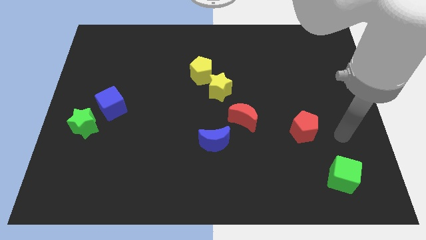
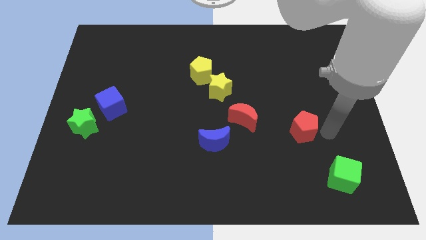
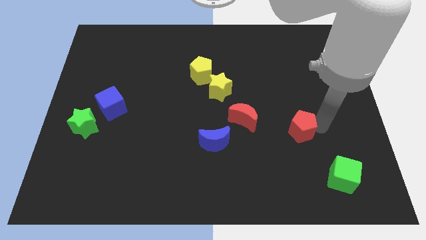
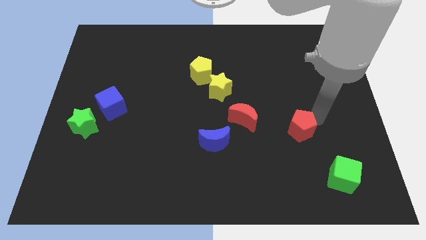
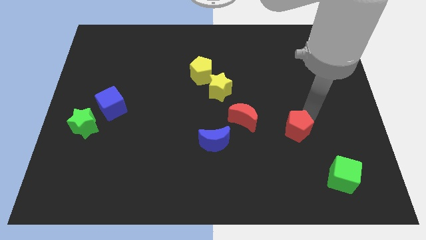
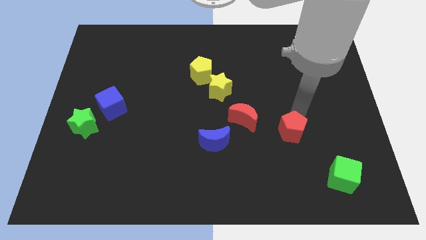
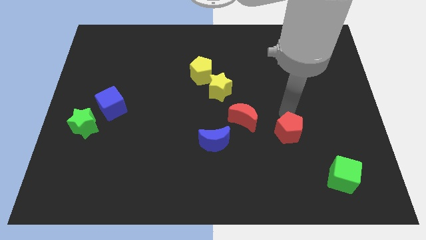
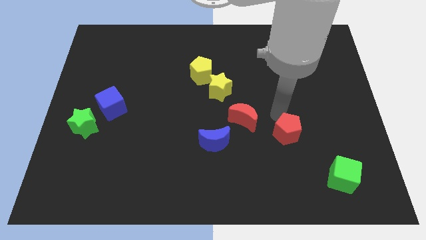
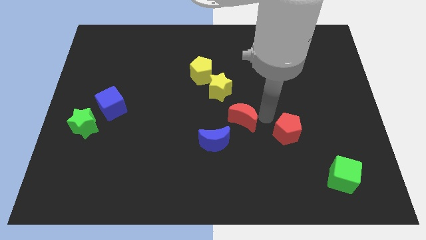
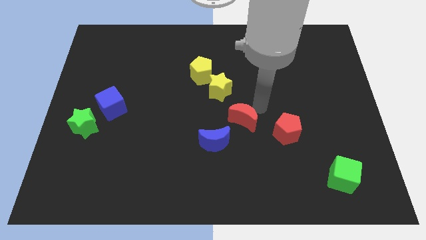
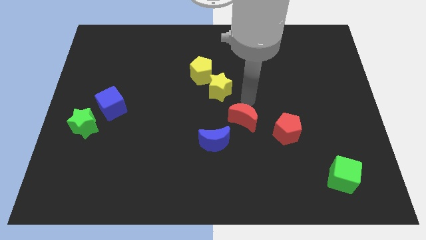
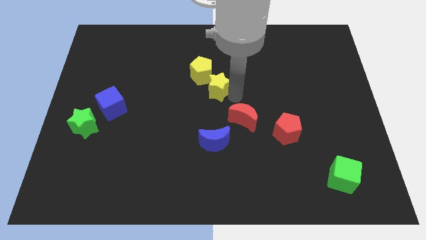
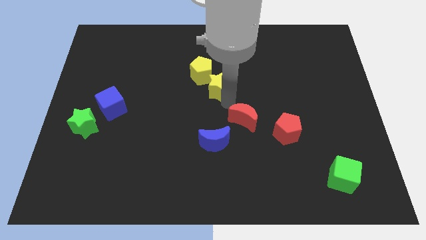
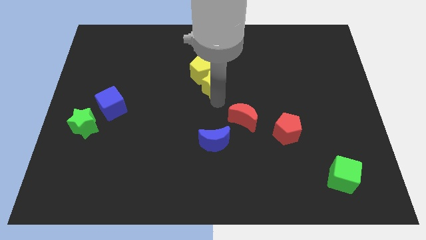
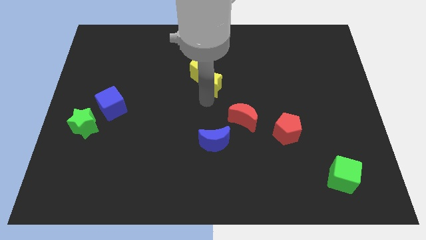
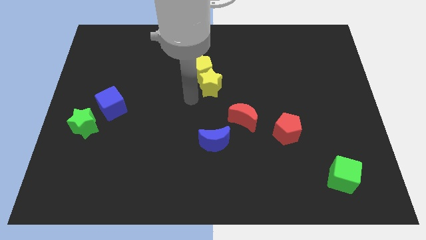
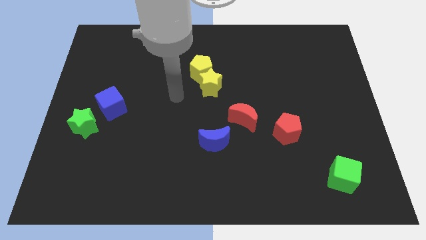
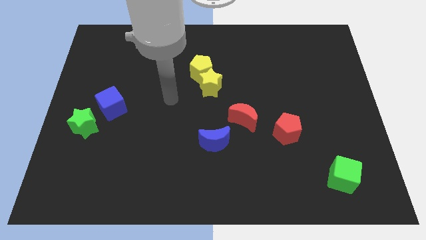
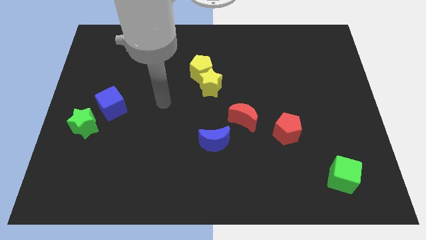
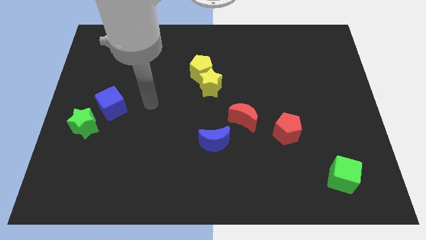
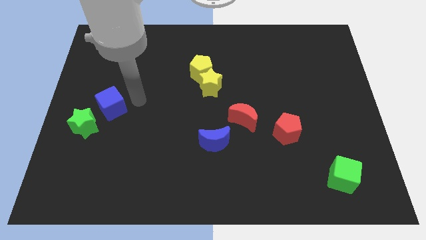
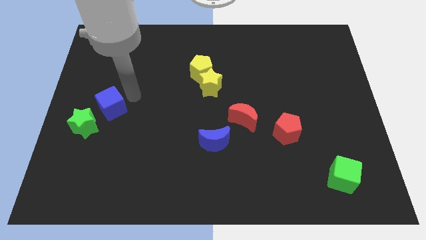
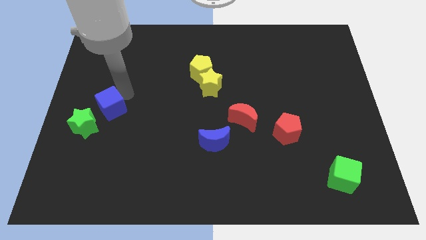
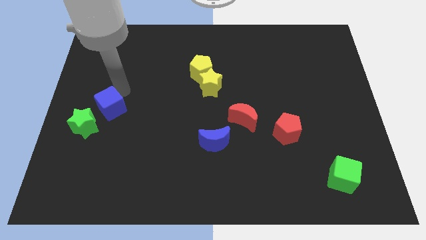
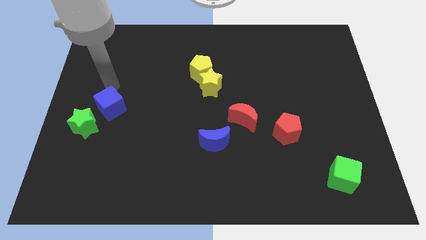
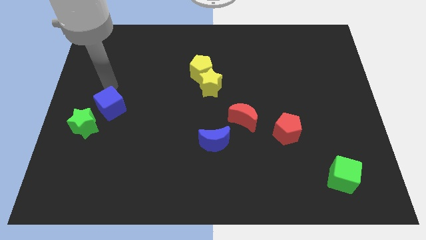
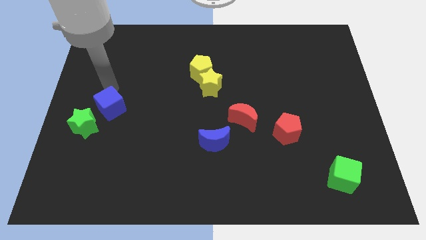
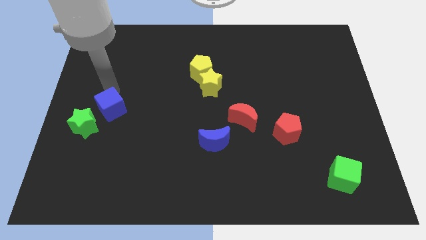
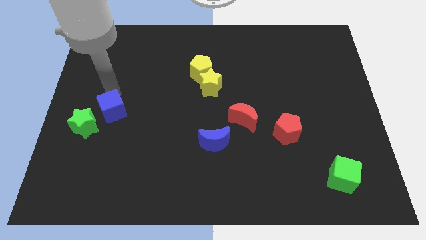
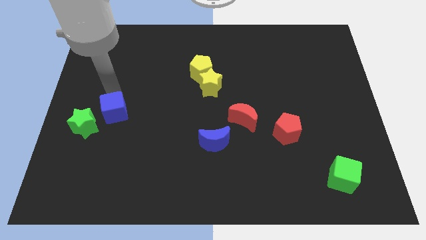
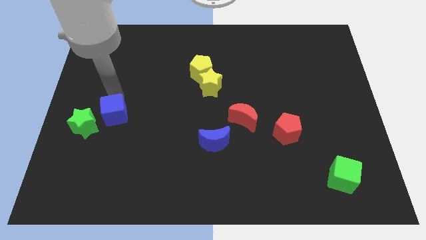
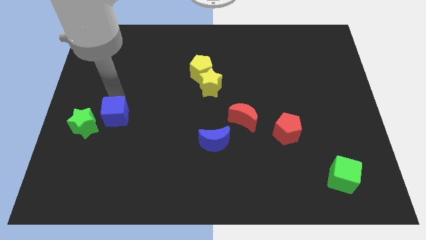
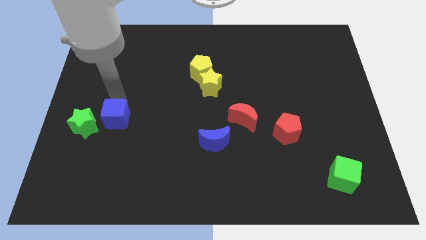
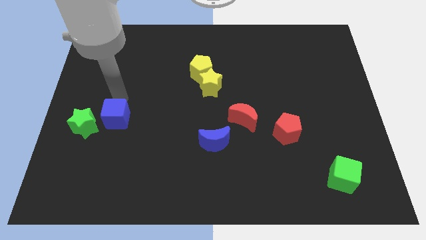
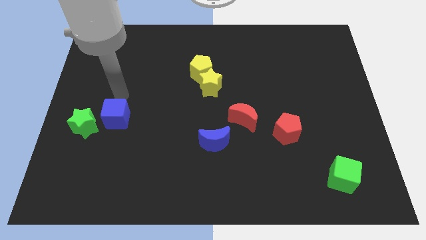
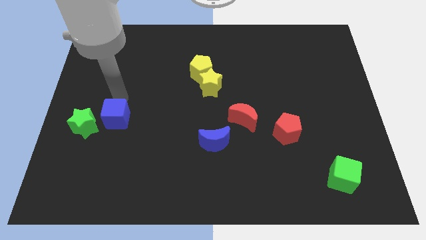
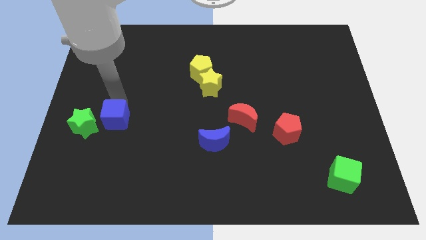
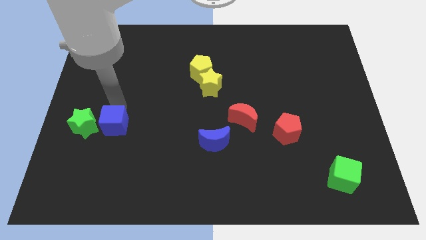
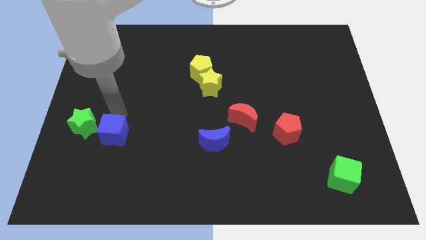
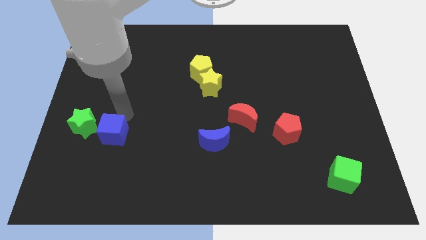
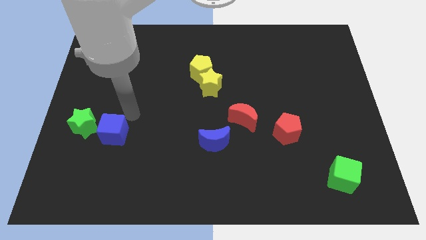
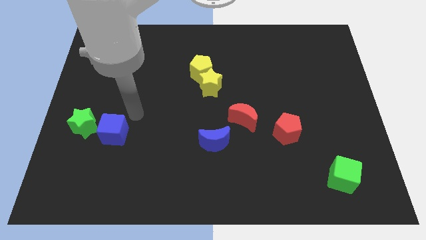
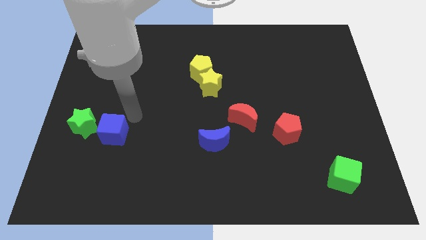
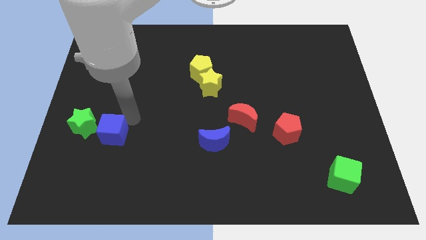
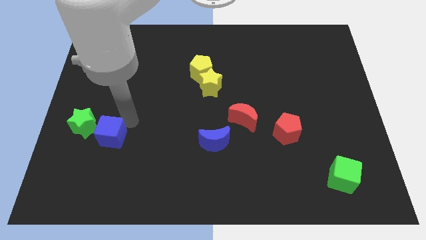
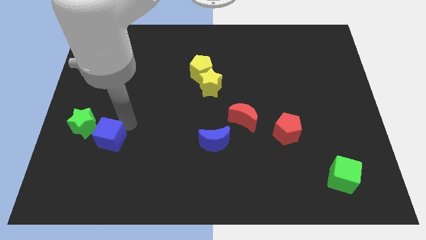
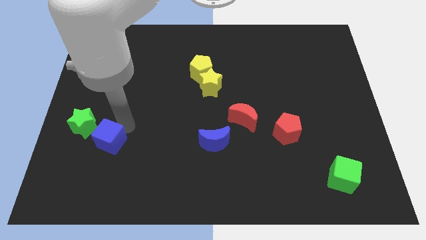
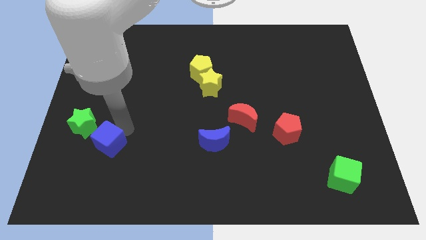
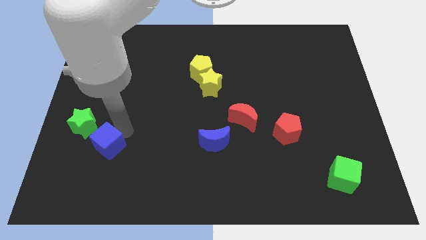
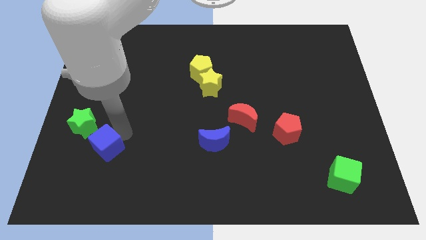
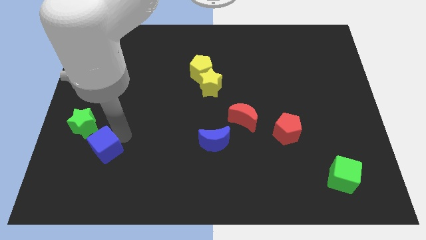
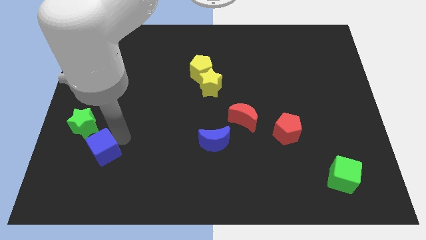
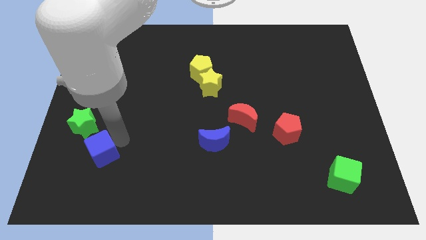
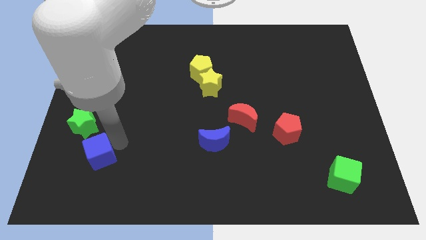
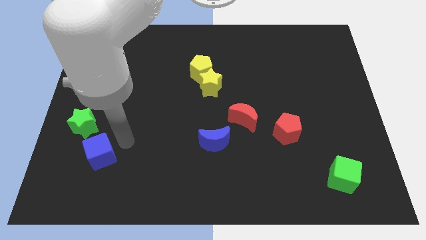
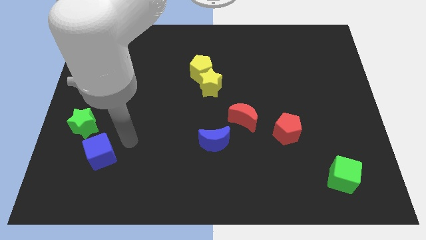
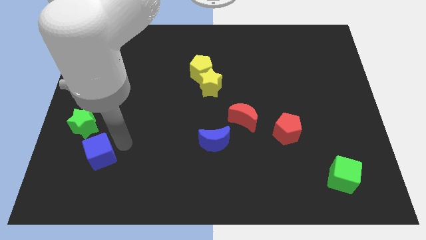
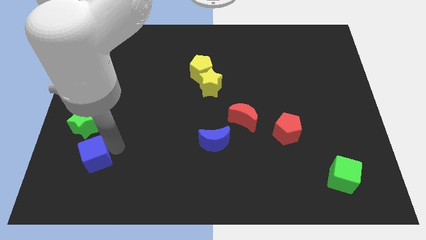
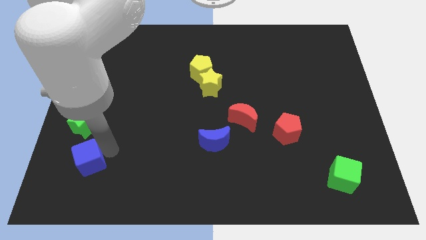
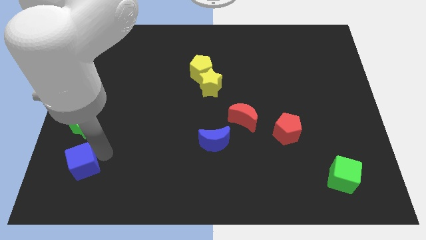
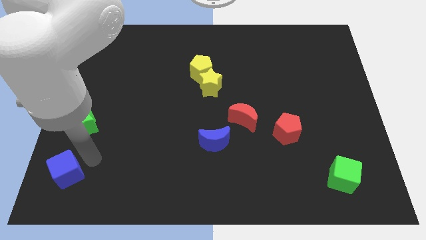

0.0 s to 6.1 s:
move the blue cube to the bottom left of the board
